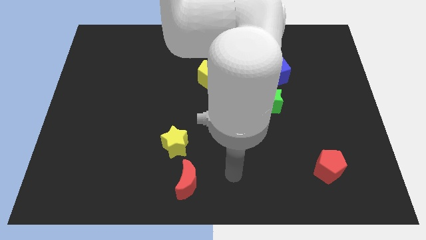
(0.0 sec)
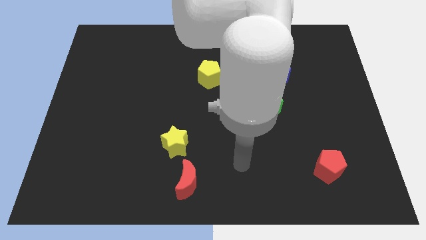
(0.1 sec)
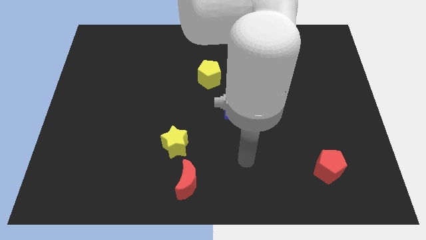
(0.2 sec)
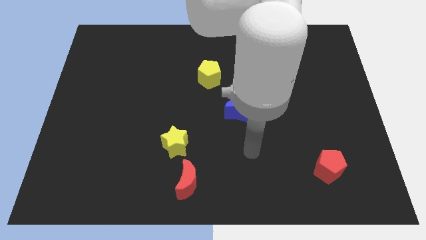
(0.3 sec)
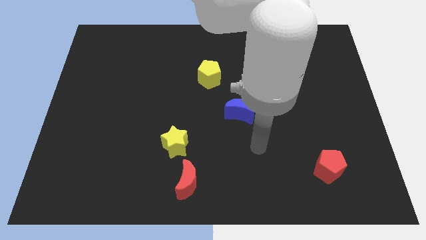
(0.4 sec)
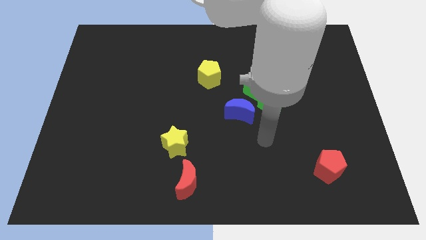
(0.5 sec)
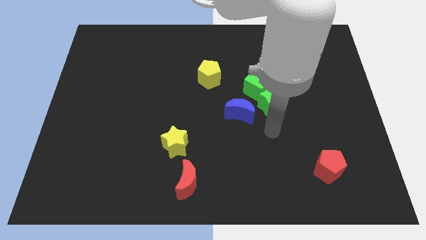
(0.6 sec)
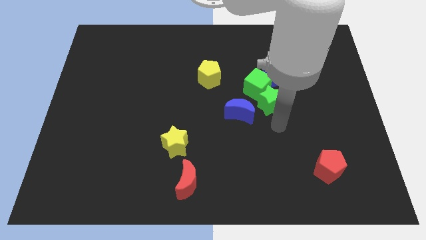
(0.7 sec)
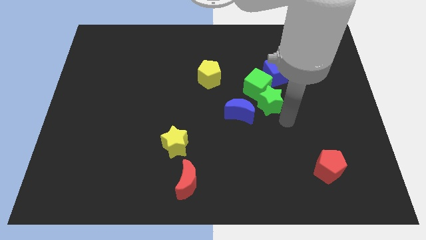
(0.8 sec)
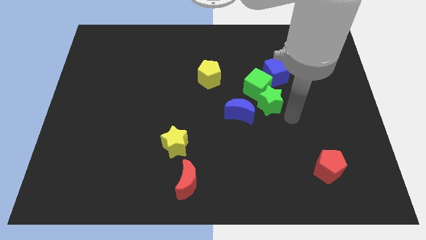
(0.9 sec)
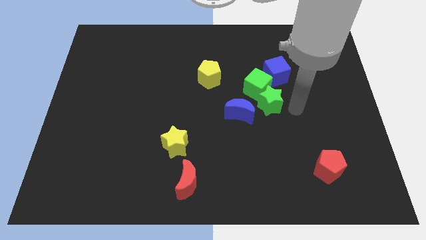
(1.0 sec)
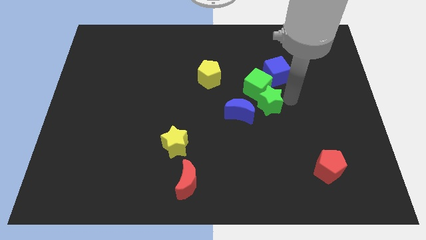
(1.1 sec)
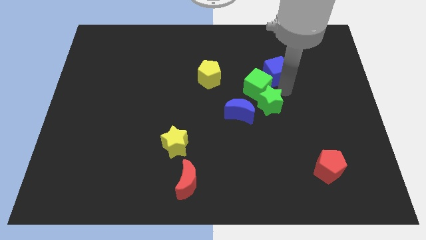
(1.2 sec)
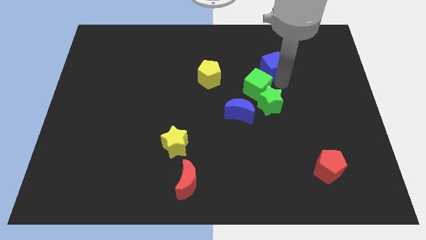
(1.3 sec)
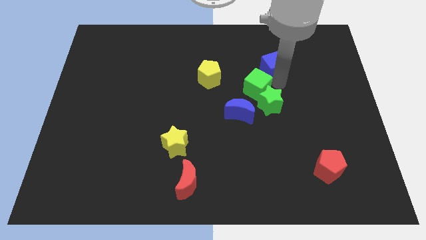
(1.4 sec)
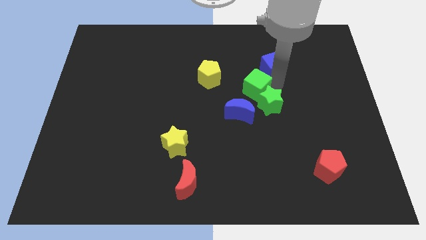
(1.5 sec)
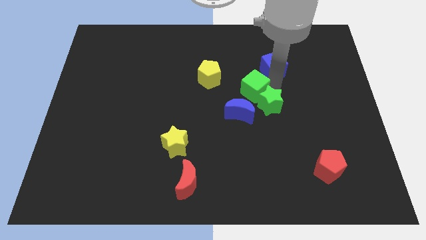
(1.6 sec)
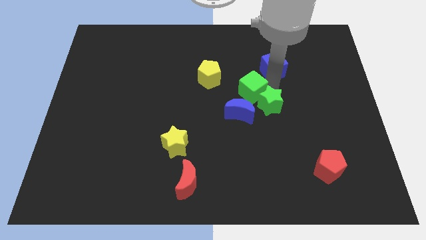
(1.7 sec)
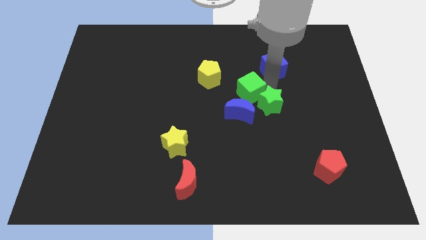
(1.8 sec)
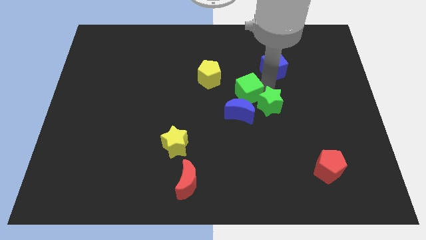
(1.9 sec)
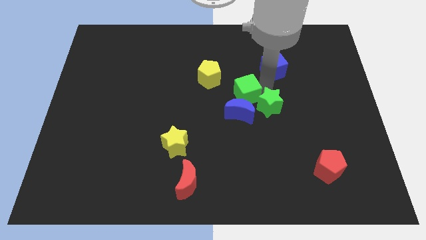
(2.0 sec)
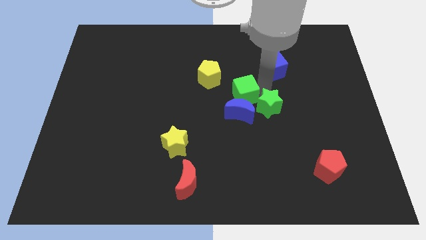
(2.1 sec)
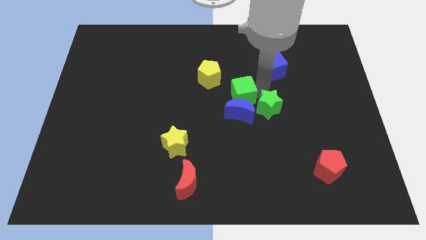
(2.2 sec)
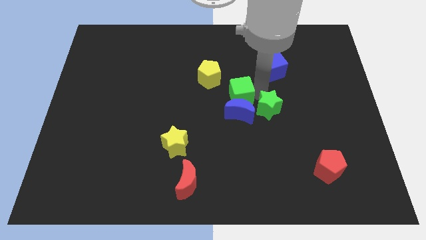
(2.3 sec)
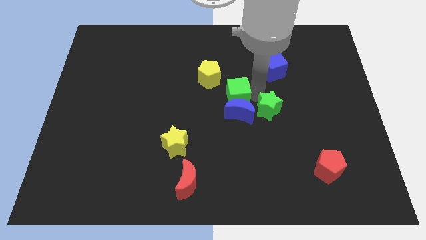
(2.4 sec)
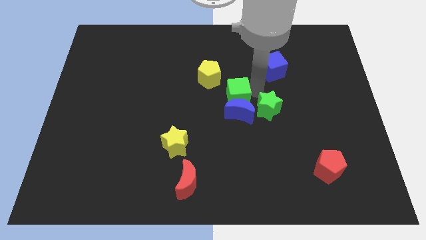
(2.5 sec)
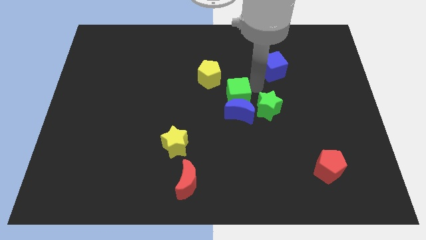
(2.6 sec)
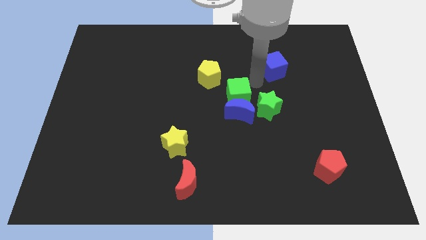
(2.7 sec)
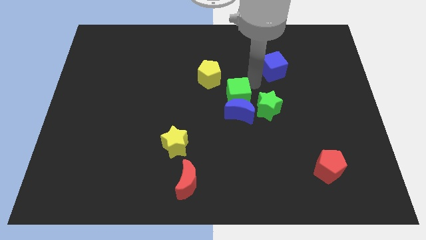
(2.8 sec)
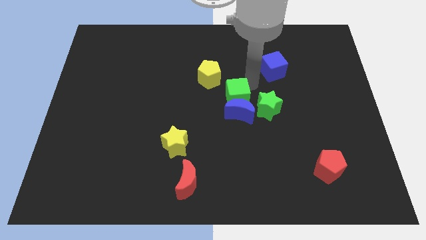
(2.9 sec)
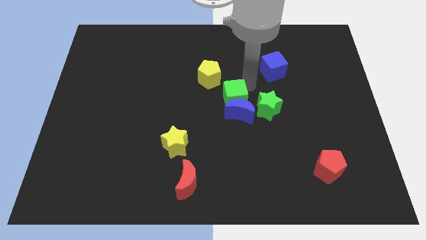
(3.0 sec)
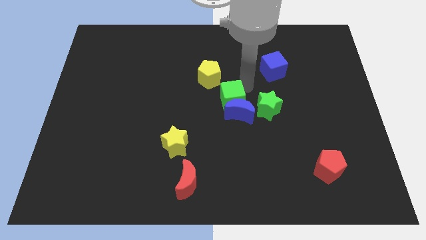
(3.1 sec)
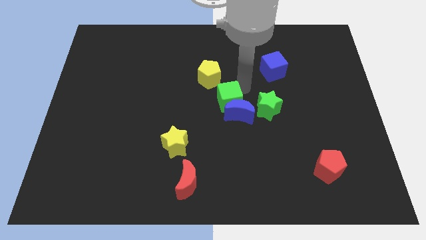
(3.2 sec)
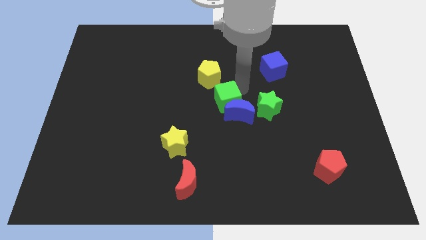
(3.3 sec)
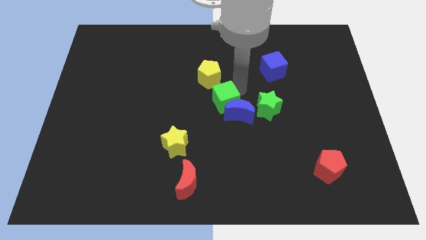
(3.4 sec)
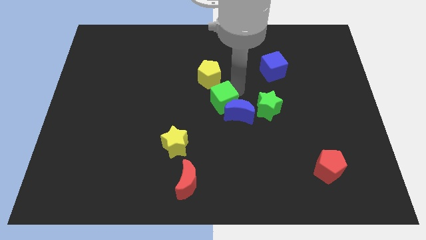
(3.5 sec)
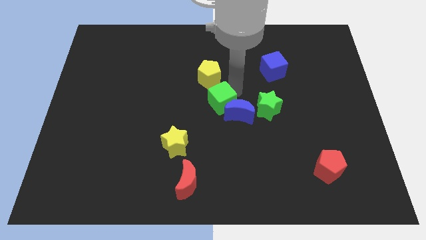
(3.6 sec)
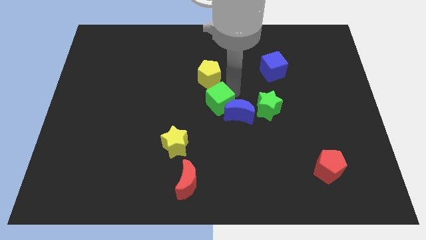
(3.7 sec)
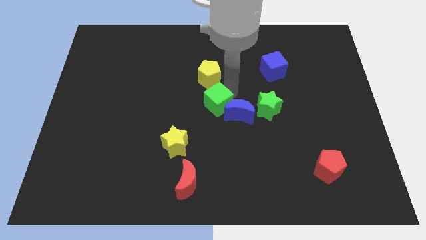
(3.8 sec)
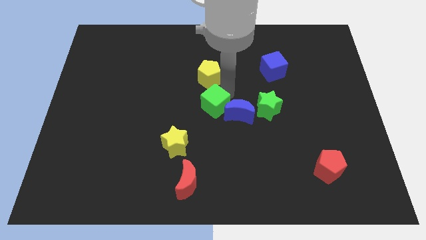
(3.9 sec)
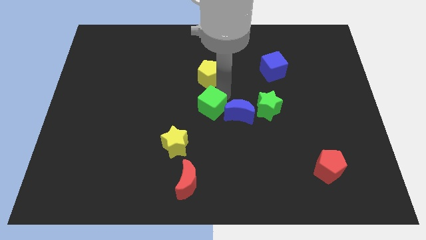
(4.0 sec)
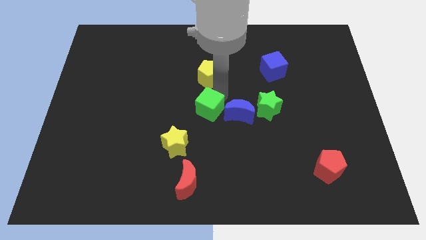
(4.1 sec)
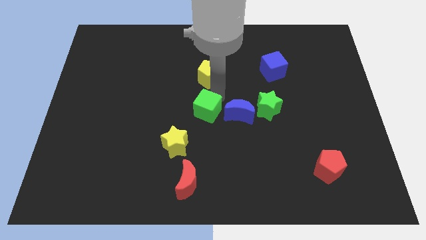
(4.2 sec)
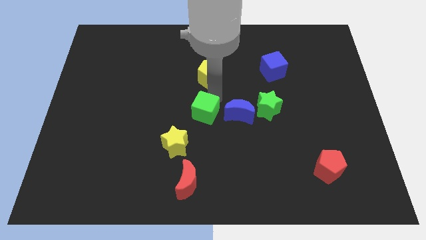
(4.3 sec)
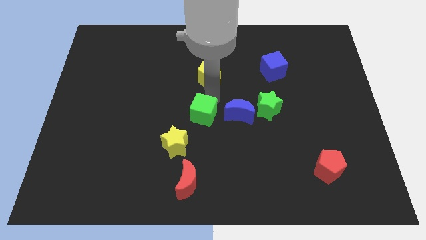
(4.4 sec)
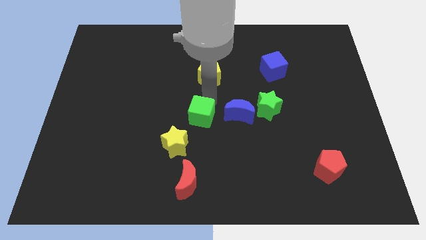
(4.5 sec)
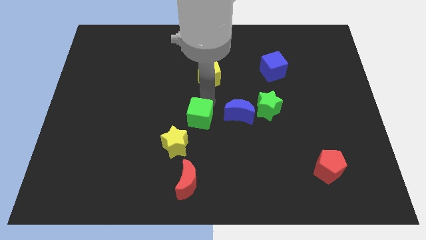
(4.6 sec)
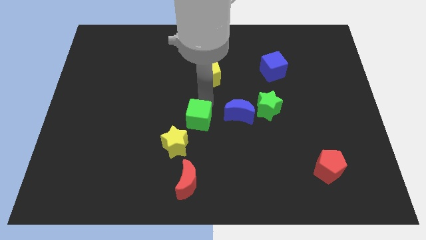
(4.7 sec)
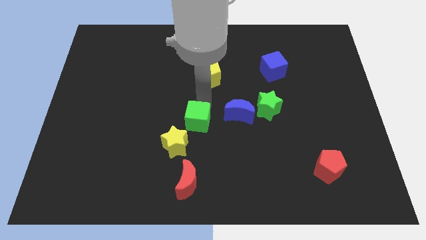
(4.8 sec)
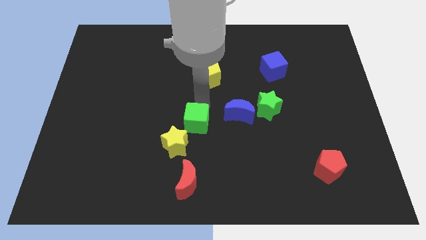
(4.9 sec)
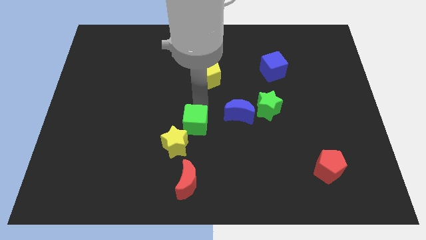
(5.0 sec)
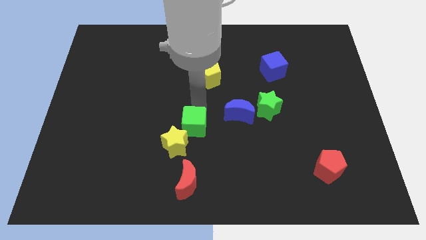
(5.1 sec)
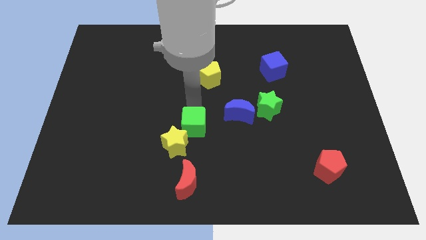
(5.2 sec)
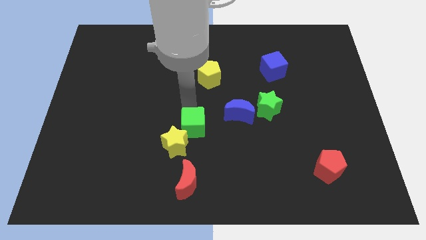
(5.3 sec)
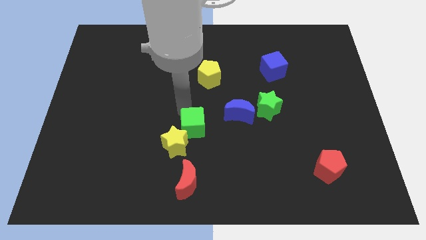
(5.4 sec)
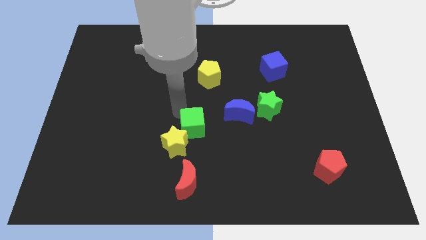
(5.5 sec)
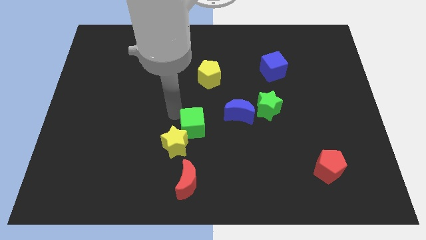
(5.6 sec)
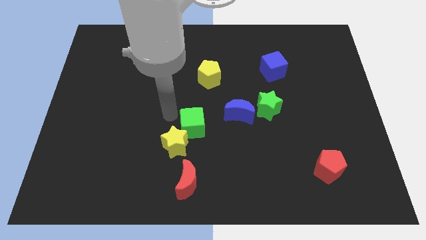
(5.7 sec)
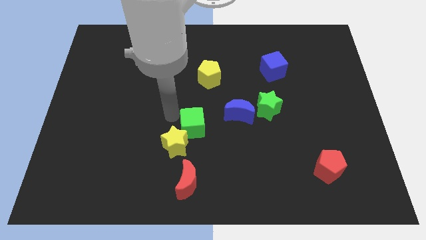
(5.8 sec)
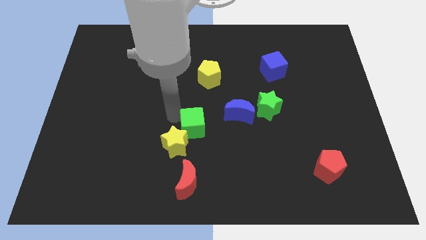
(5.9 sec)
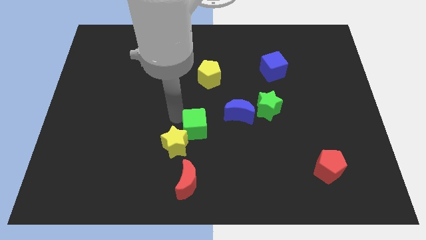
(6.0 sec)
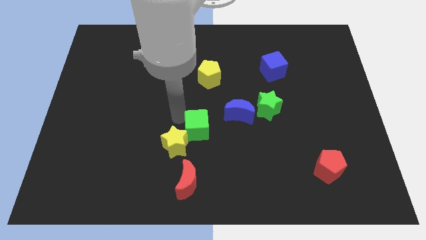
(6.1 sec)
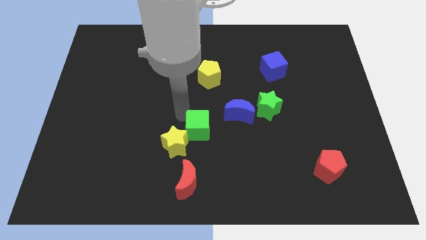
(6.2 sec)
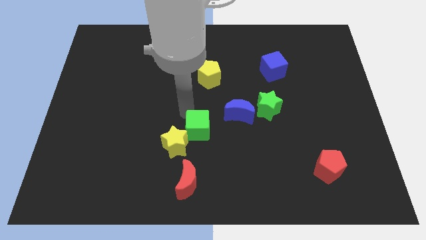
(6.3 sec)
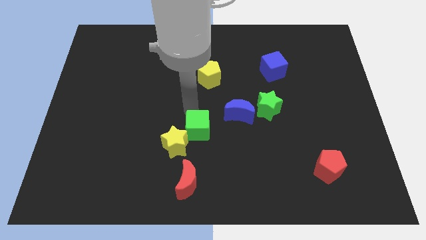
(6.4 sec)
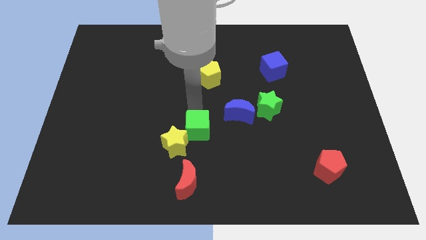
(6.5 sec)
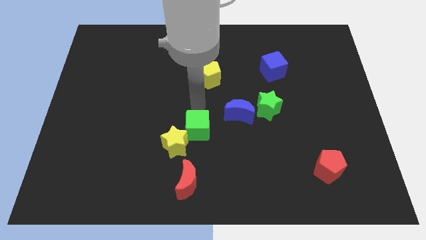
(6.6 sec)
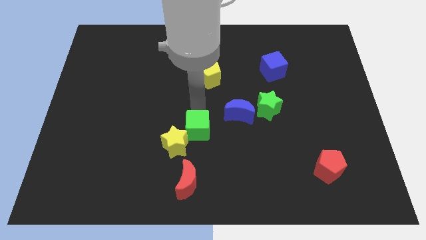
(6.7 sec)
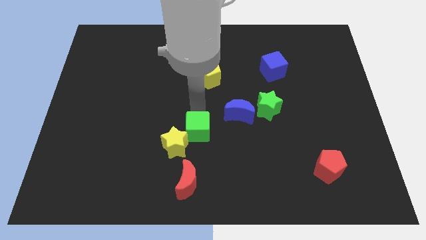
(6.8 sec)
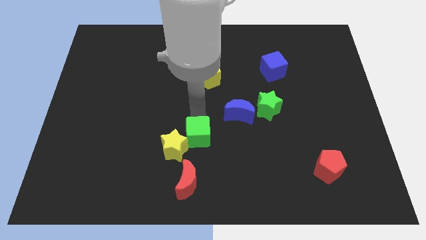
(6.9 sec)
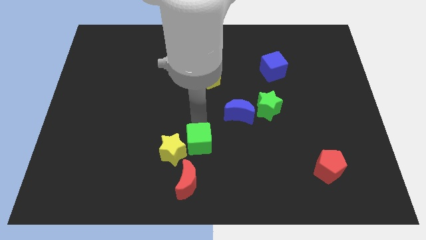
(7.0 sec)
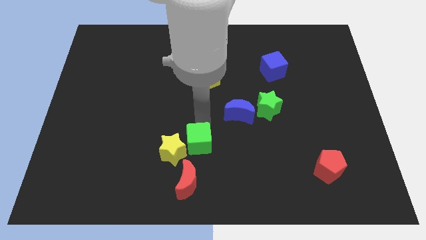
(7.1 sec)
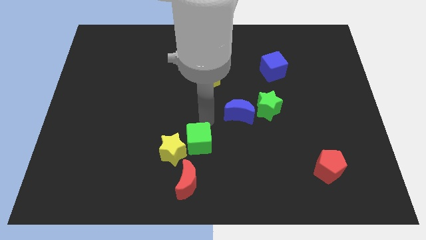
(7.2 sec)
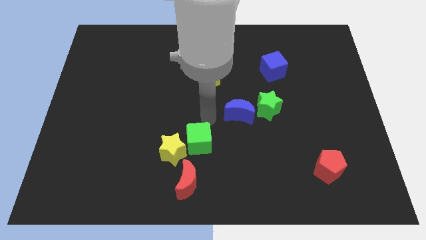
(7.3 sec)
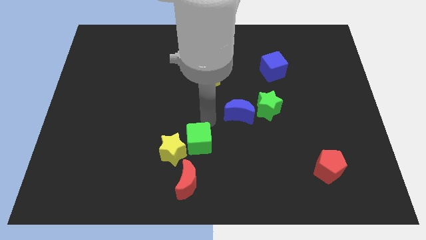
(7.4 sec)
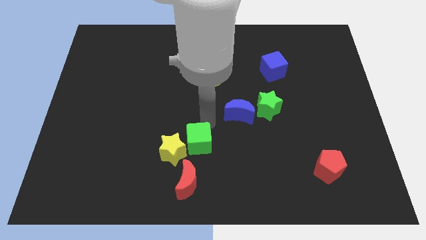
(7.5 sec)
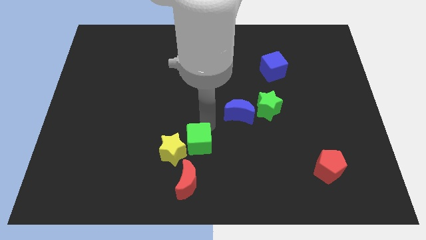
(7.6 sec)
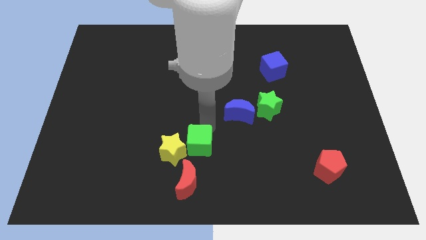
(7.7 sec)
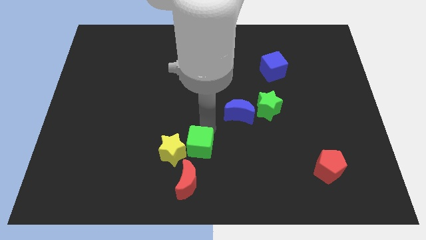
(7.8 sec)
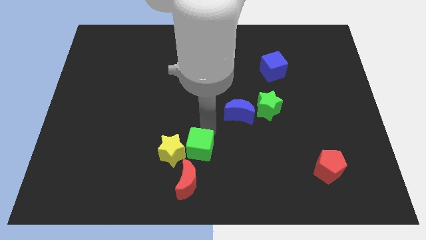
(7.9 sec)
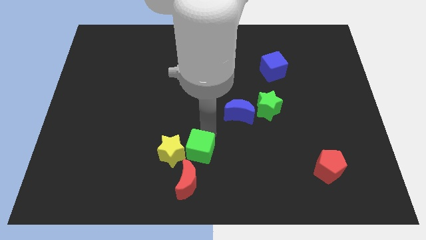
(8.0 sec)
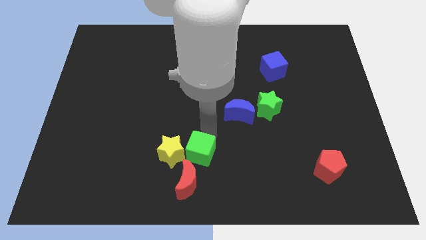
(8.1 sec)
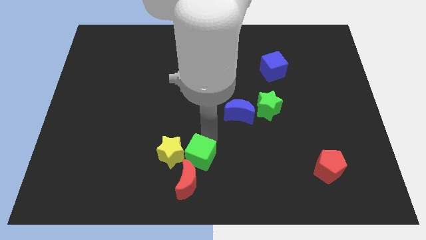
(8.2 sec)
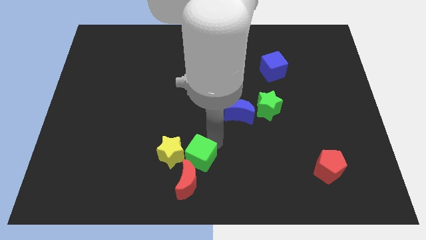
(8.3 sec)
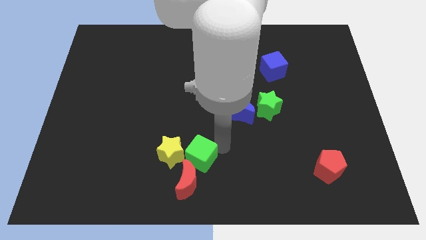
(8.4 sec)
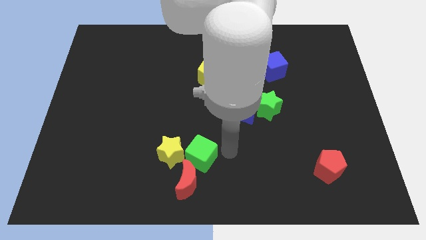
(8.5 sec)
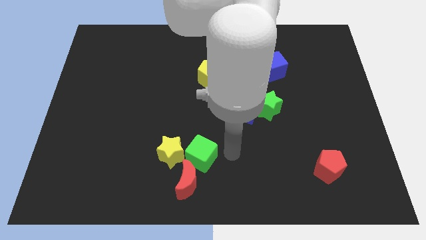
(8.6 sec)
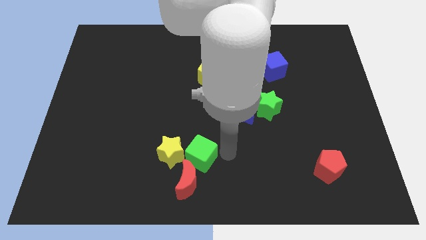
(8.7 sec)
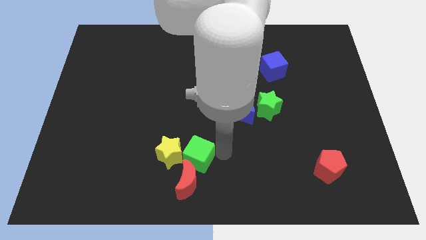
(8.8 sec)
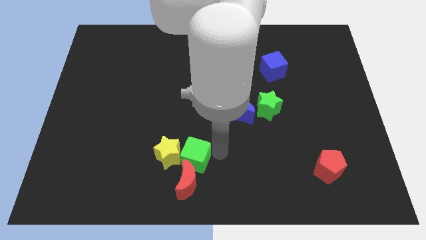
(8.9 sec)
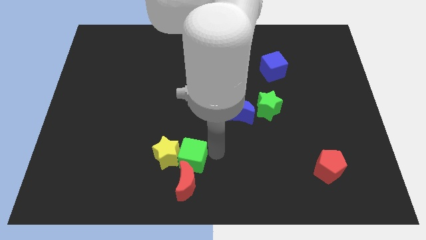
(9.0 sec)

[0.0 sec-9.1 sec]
push the green cube diagonally up and to the left of the red moon
